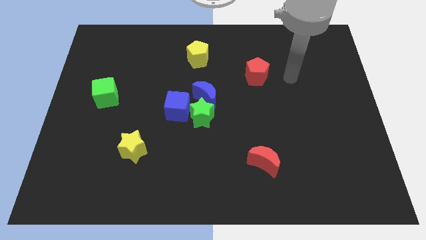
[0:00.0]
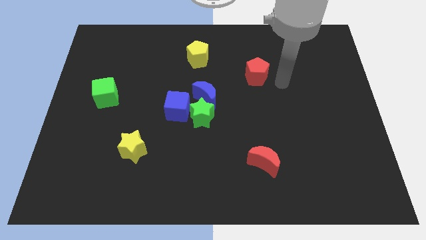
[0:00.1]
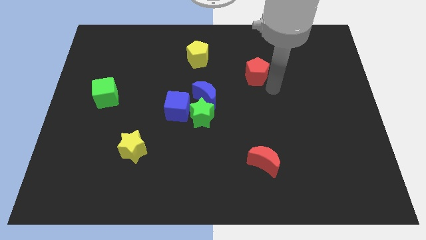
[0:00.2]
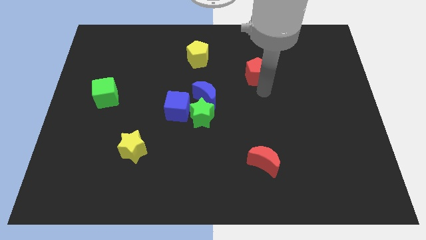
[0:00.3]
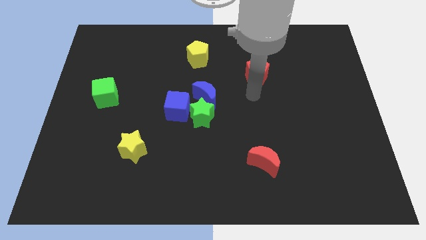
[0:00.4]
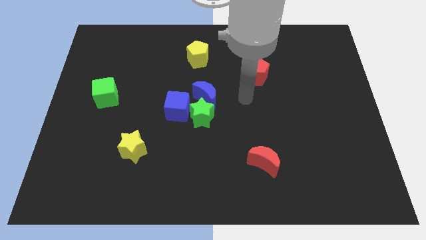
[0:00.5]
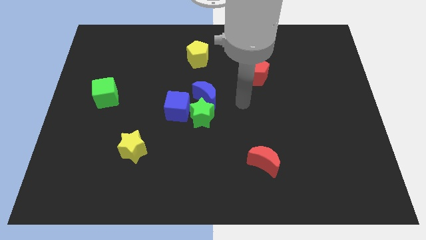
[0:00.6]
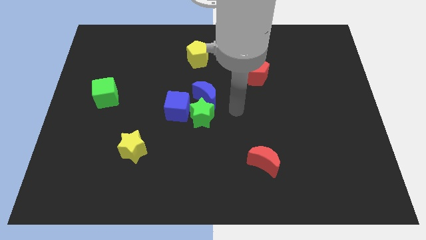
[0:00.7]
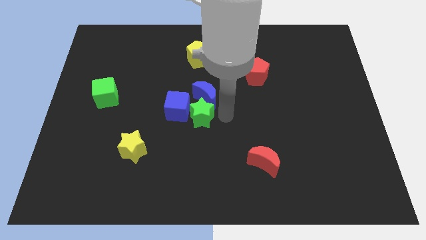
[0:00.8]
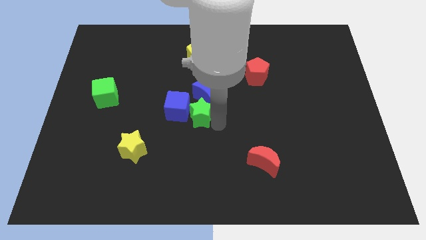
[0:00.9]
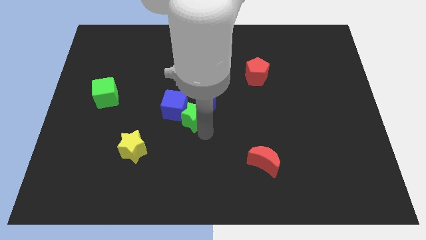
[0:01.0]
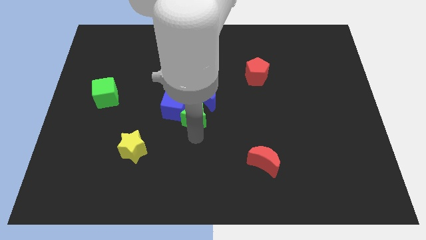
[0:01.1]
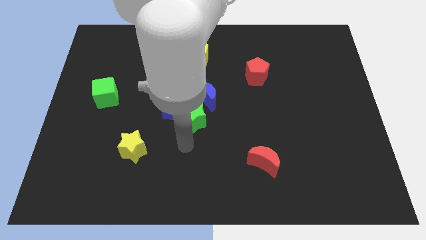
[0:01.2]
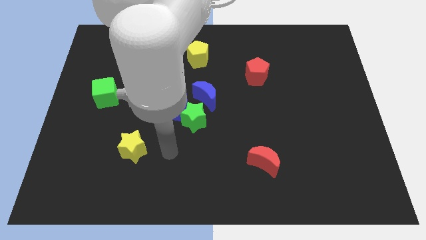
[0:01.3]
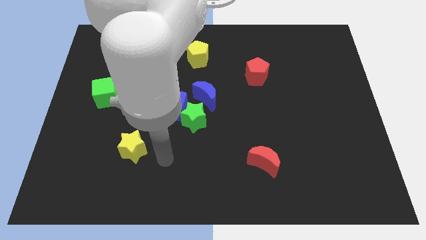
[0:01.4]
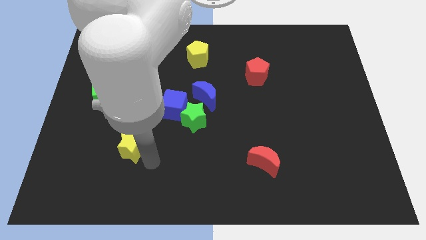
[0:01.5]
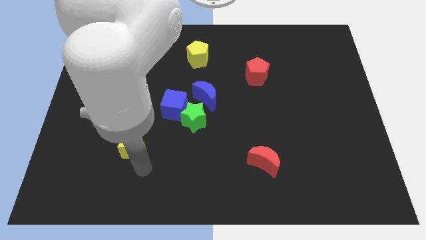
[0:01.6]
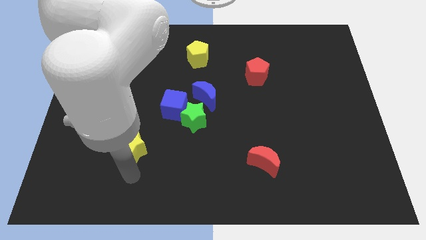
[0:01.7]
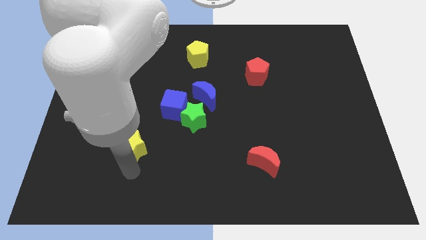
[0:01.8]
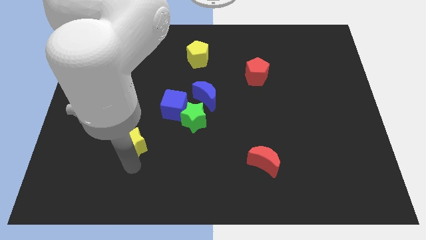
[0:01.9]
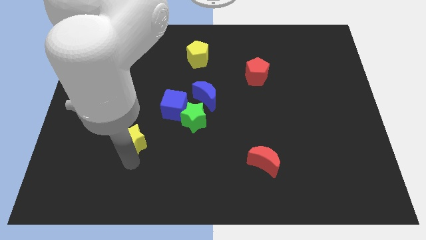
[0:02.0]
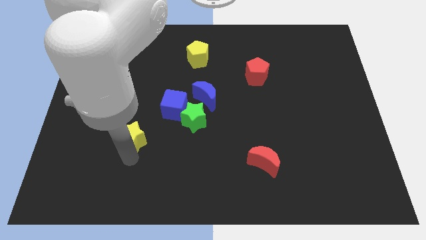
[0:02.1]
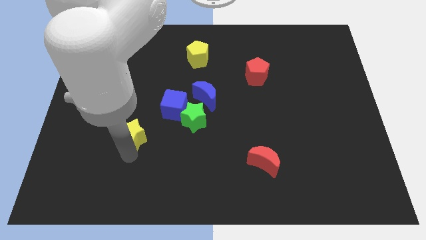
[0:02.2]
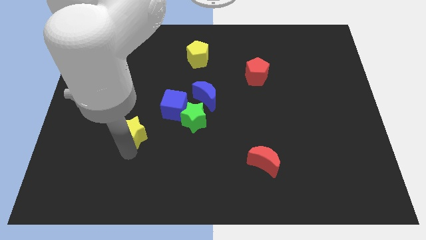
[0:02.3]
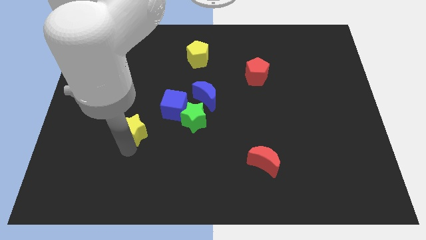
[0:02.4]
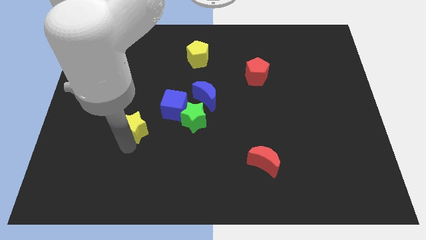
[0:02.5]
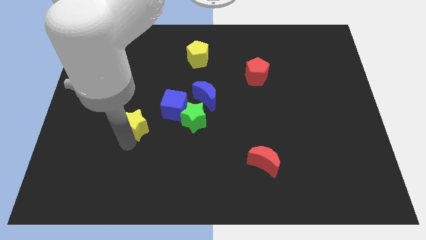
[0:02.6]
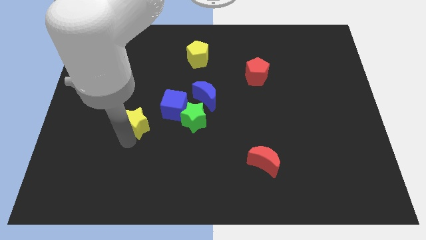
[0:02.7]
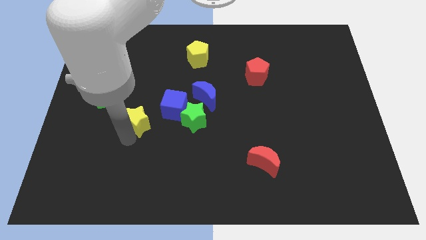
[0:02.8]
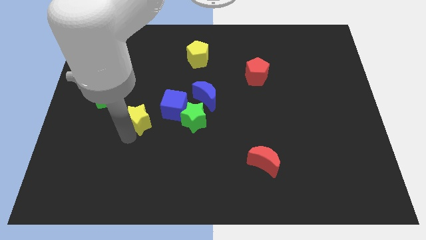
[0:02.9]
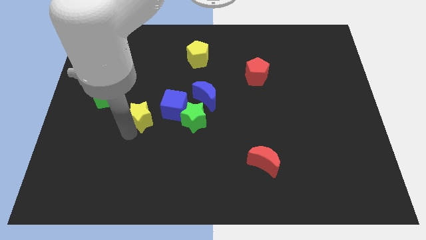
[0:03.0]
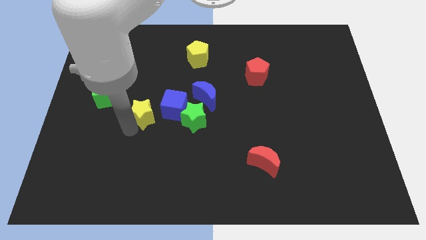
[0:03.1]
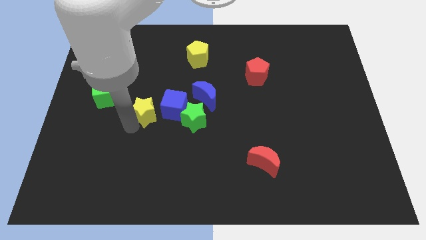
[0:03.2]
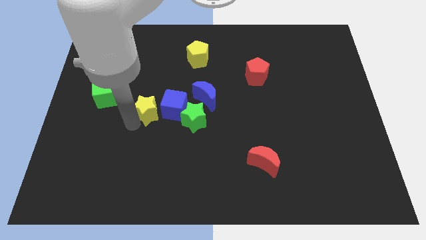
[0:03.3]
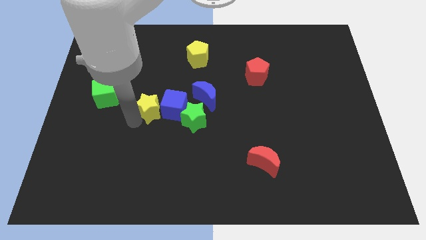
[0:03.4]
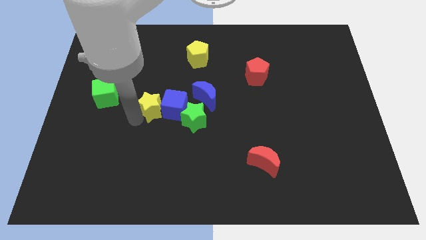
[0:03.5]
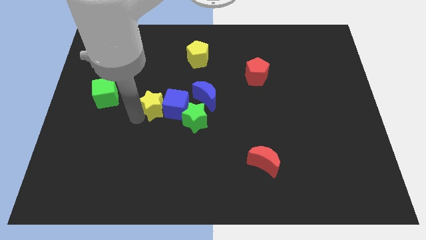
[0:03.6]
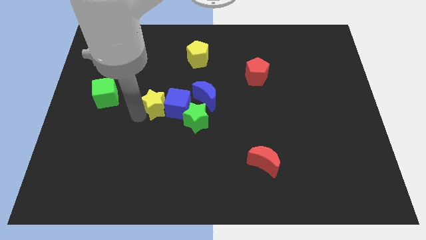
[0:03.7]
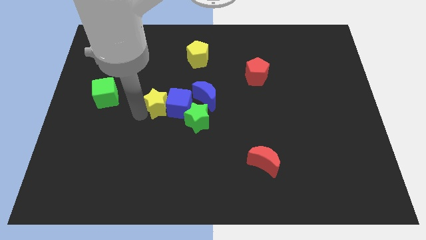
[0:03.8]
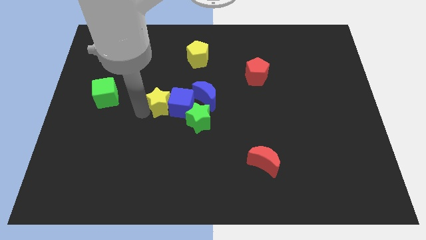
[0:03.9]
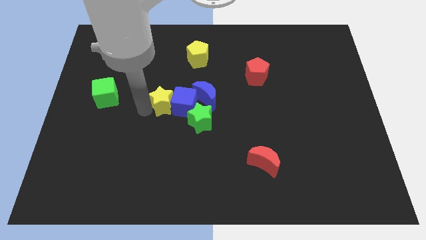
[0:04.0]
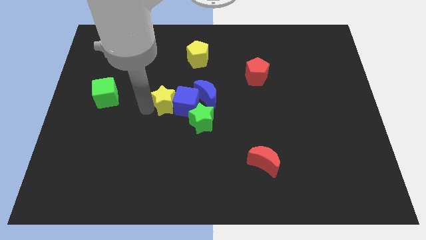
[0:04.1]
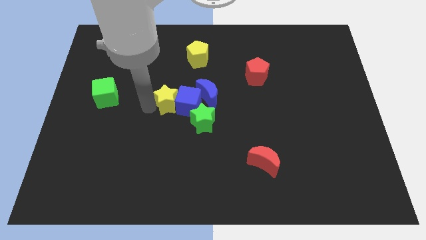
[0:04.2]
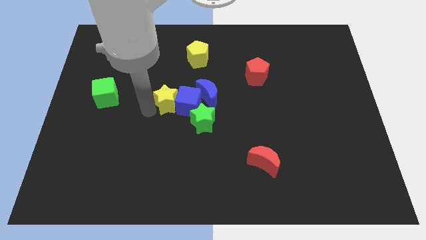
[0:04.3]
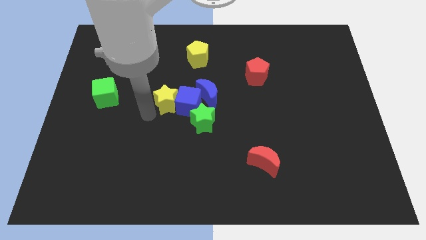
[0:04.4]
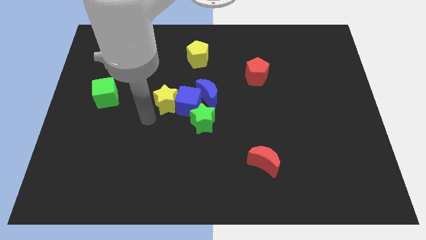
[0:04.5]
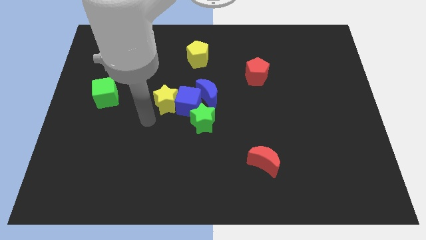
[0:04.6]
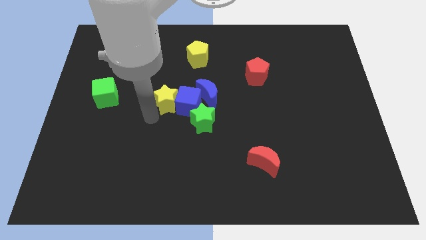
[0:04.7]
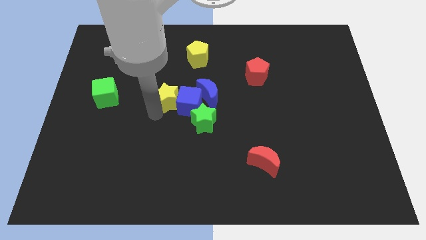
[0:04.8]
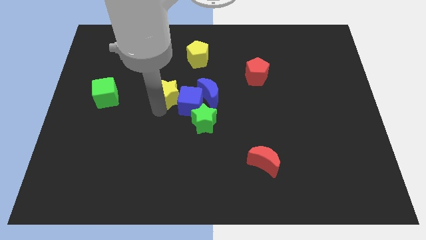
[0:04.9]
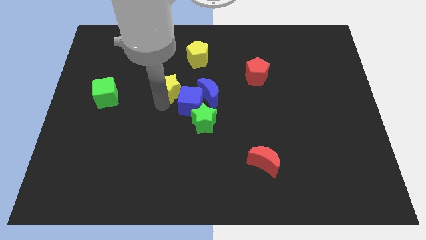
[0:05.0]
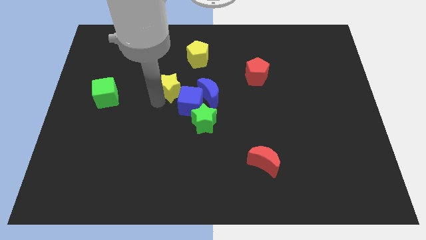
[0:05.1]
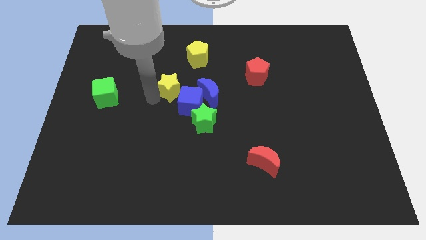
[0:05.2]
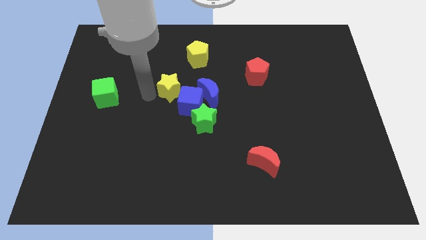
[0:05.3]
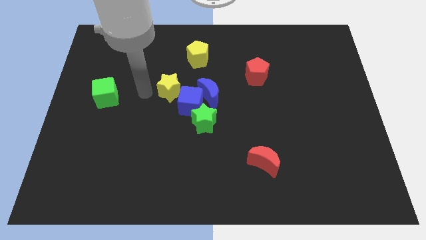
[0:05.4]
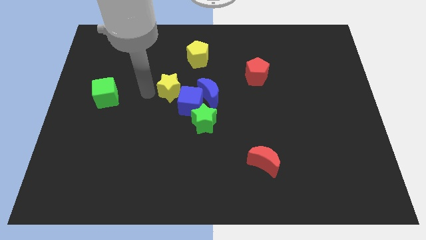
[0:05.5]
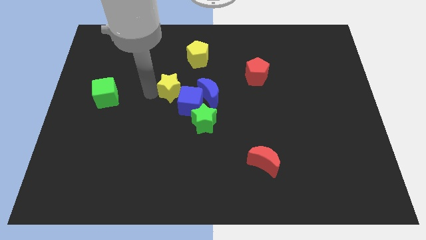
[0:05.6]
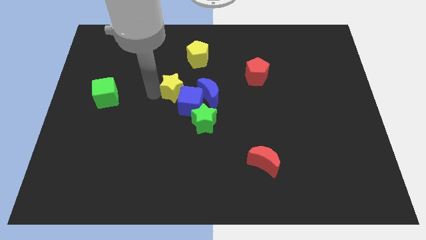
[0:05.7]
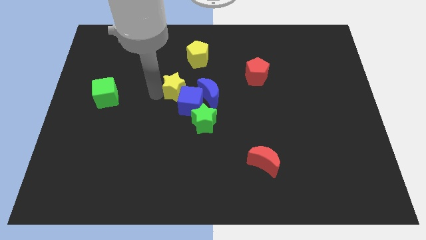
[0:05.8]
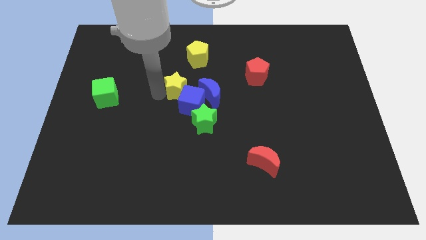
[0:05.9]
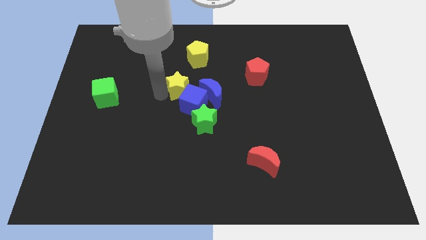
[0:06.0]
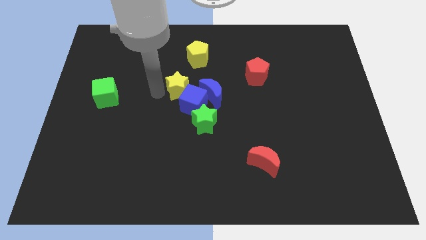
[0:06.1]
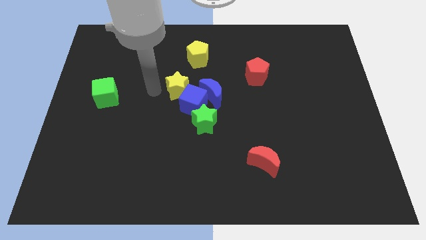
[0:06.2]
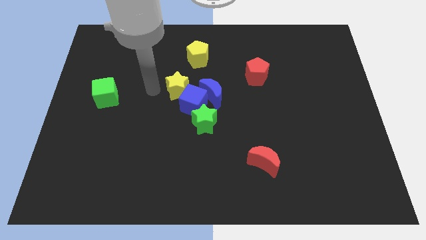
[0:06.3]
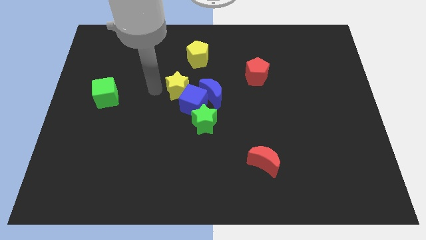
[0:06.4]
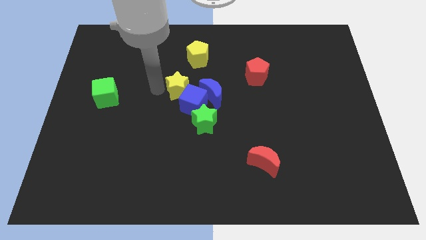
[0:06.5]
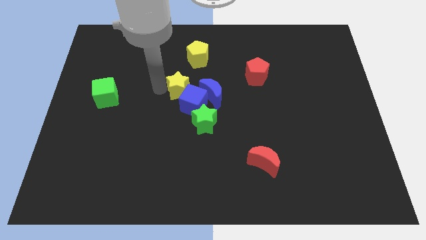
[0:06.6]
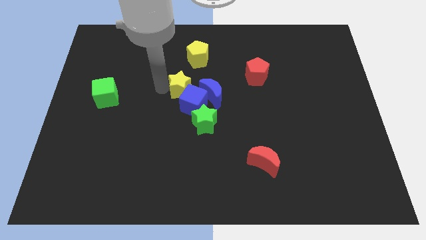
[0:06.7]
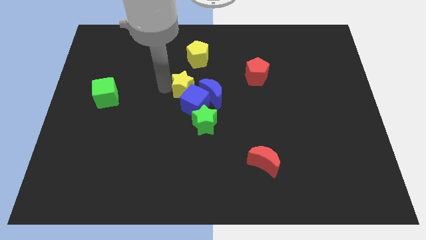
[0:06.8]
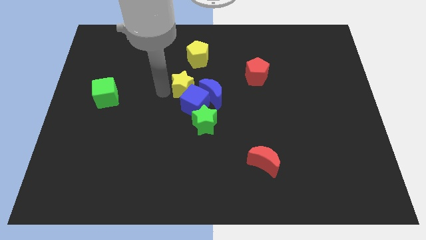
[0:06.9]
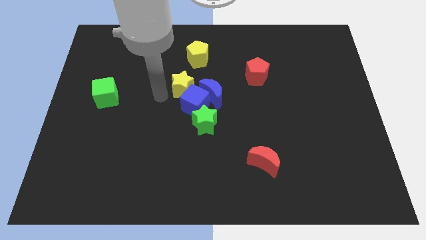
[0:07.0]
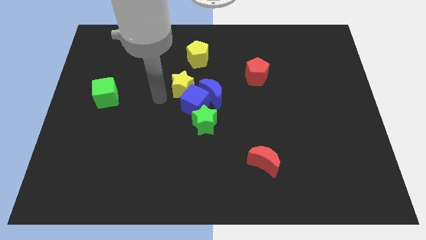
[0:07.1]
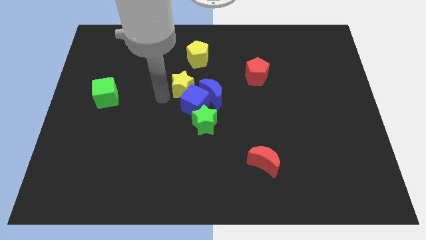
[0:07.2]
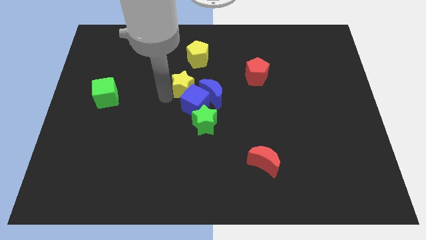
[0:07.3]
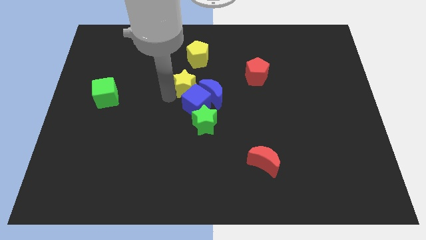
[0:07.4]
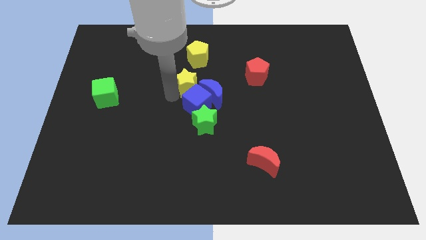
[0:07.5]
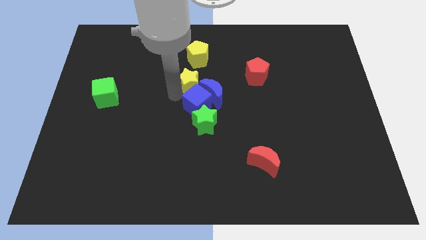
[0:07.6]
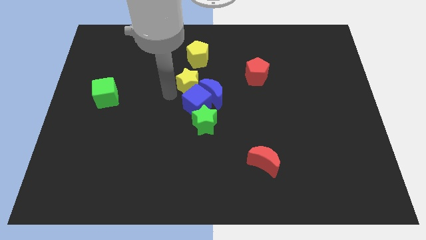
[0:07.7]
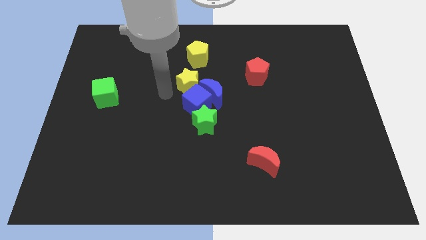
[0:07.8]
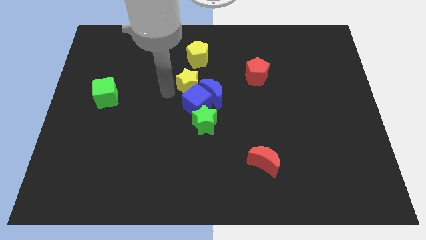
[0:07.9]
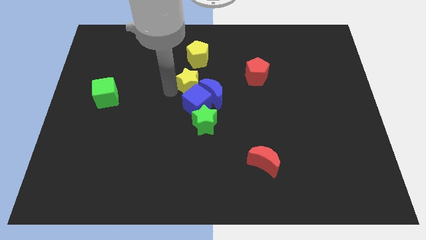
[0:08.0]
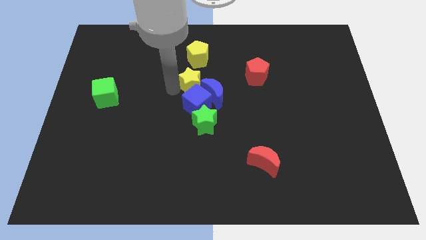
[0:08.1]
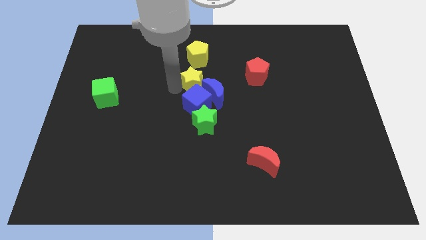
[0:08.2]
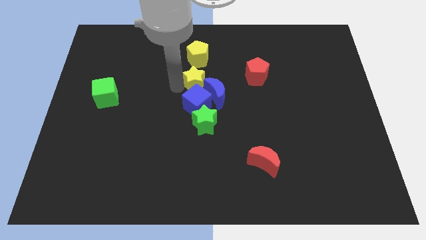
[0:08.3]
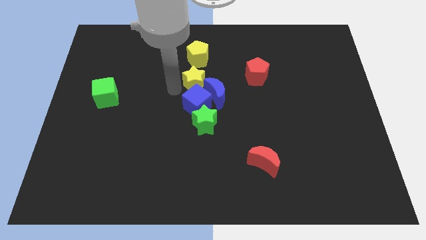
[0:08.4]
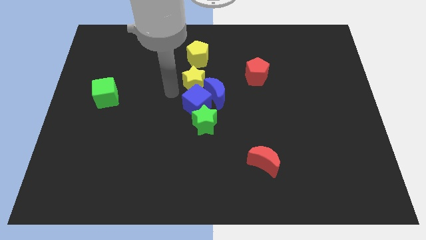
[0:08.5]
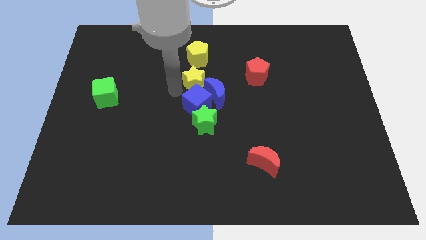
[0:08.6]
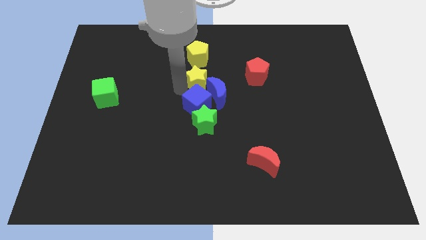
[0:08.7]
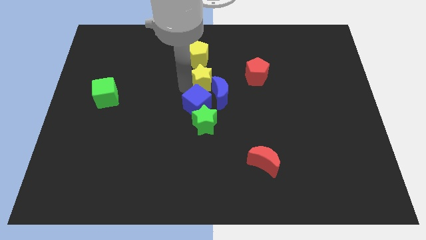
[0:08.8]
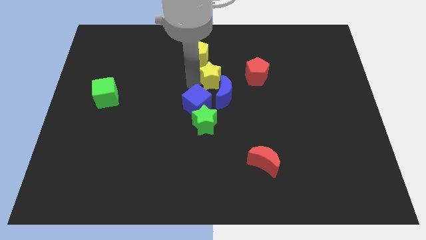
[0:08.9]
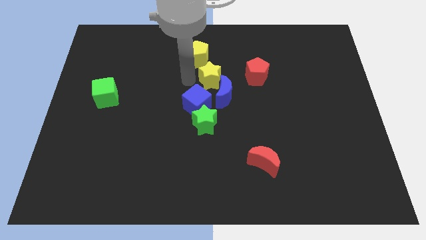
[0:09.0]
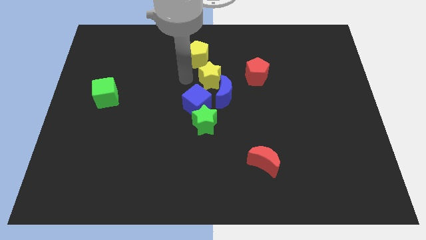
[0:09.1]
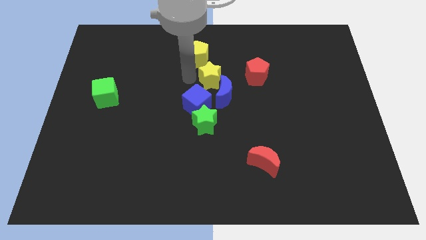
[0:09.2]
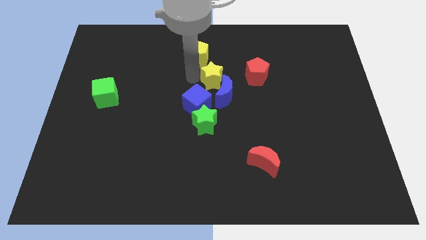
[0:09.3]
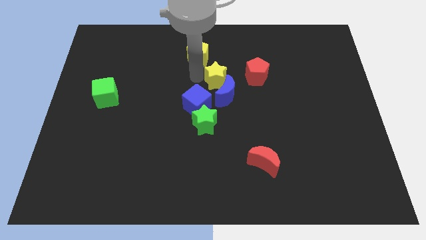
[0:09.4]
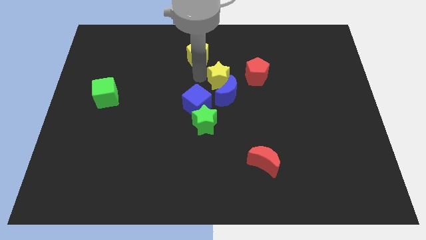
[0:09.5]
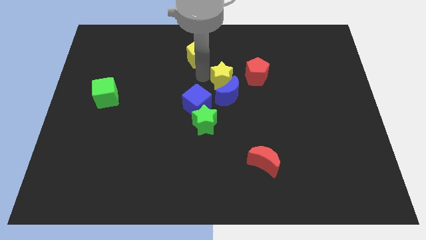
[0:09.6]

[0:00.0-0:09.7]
put the yellow star to the top right side of the blue moon
